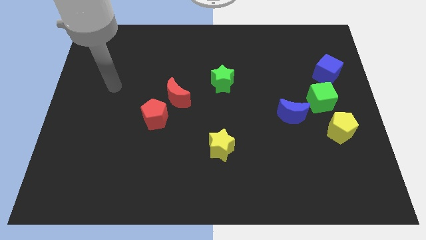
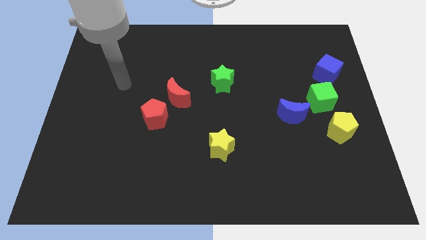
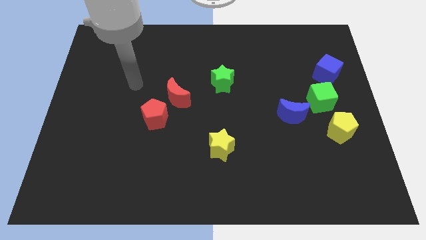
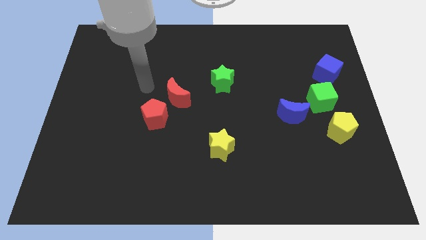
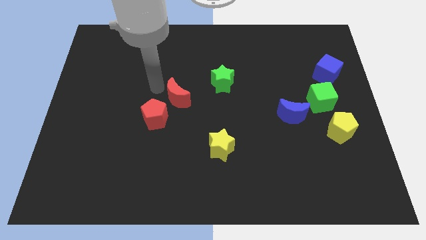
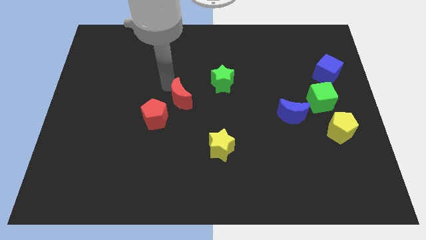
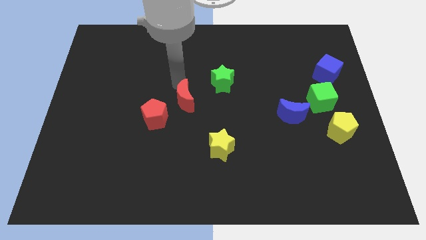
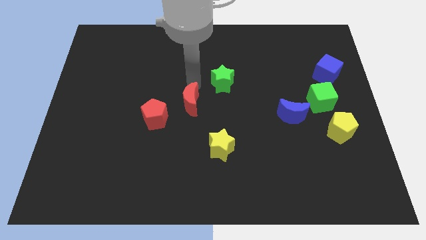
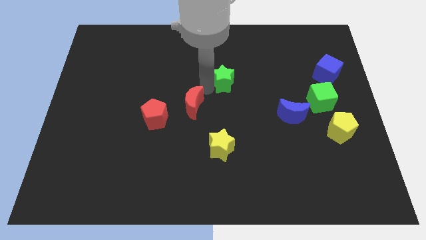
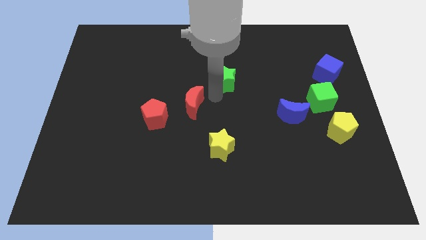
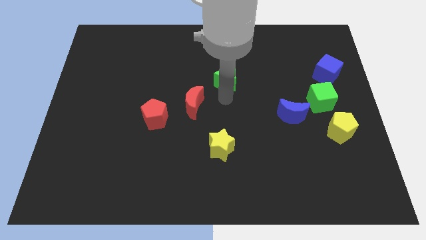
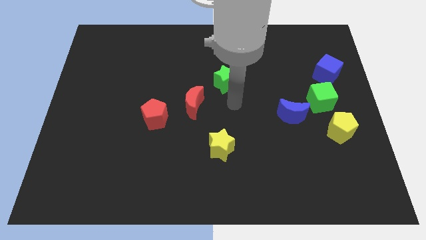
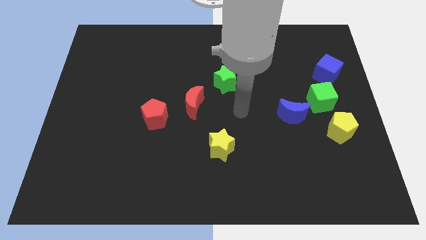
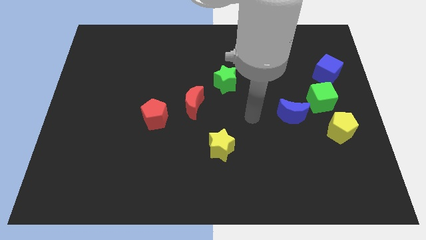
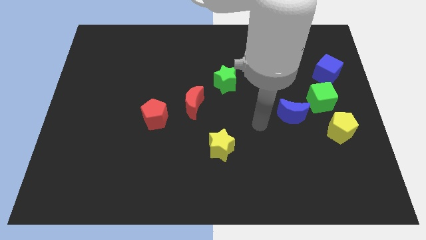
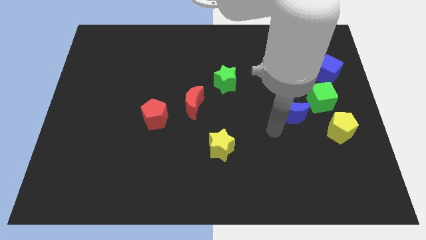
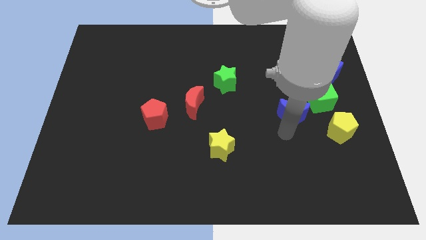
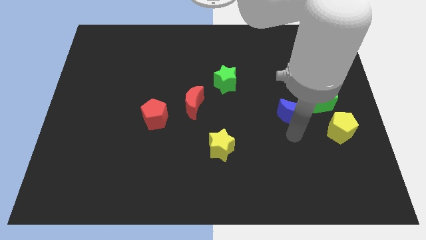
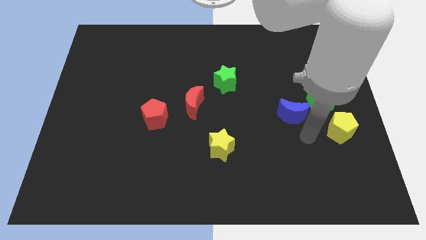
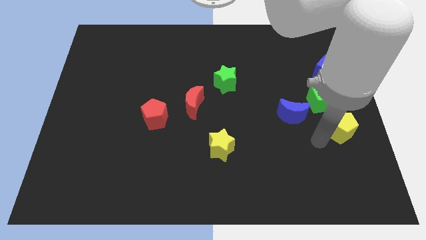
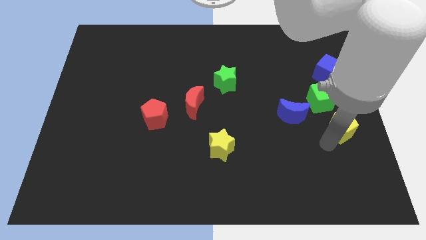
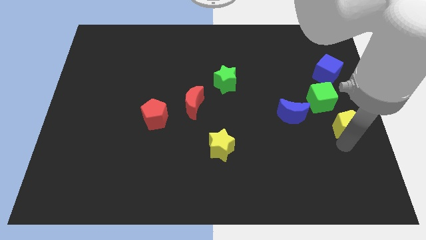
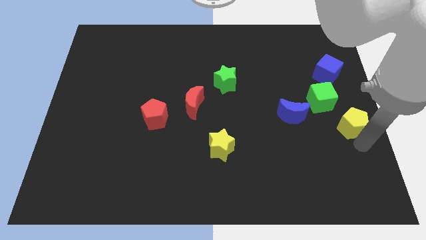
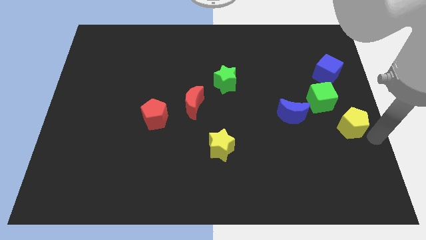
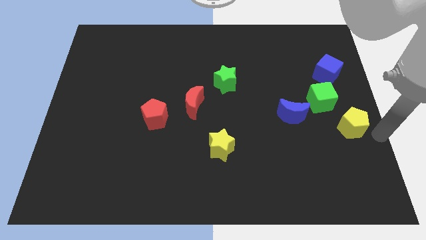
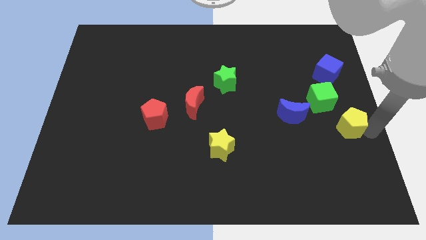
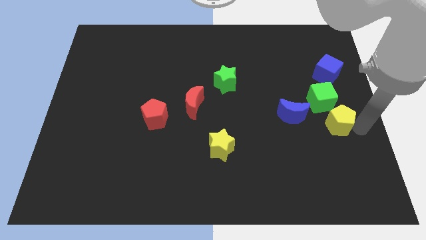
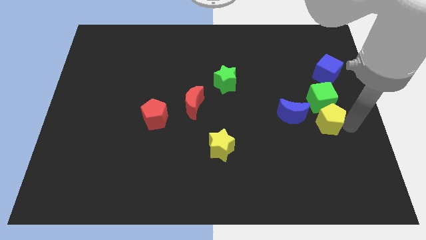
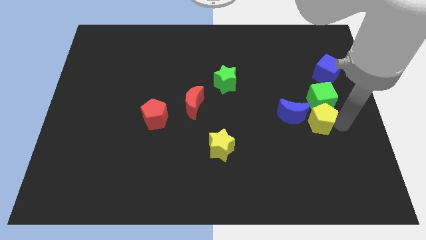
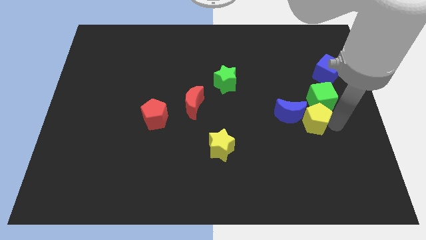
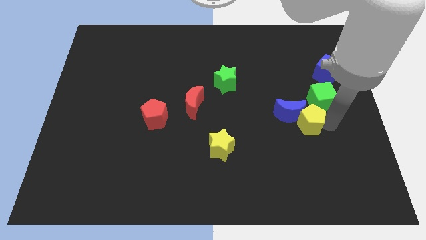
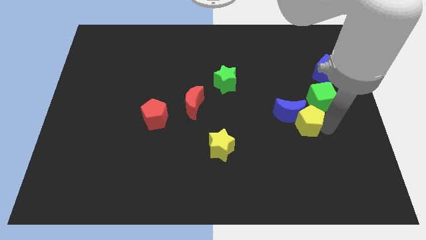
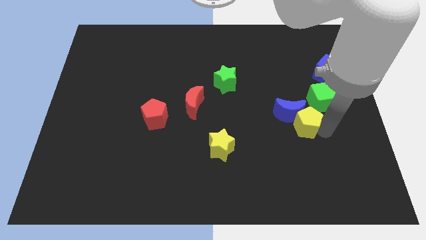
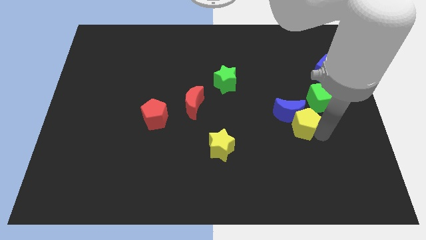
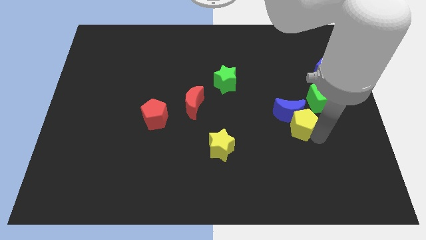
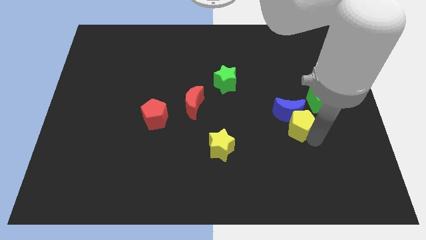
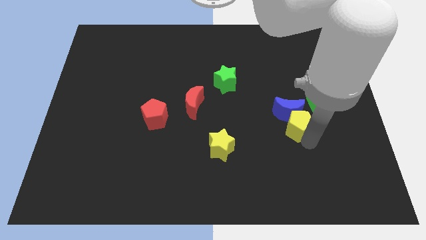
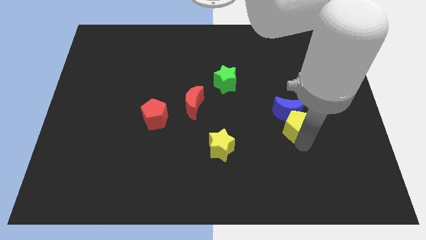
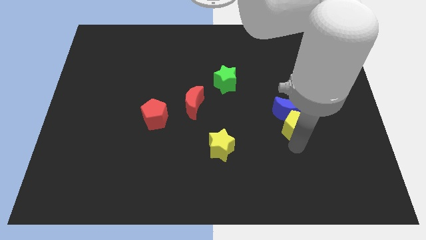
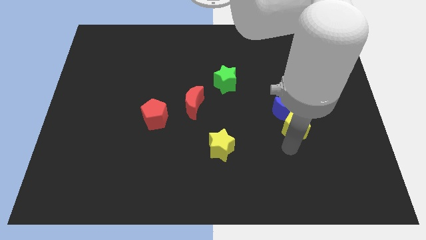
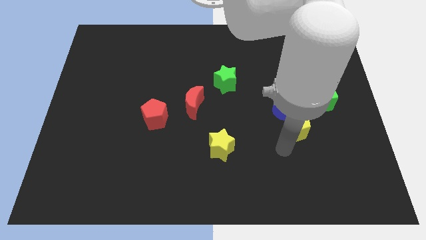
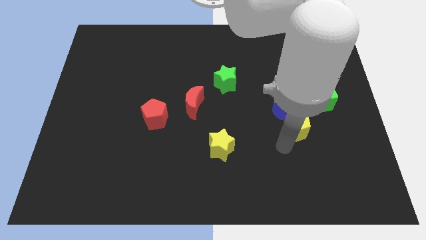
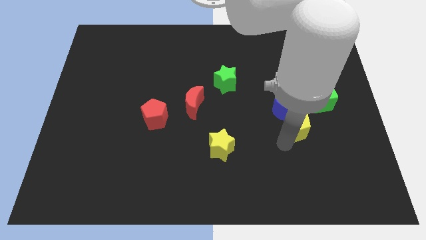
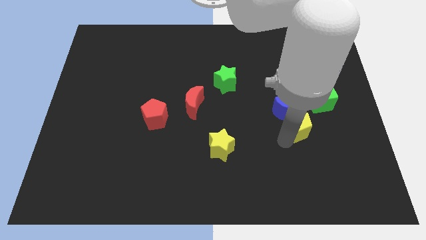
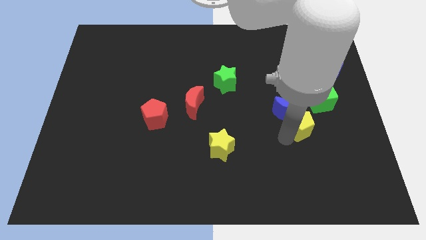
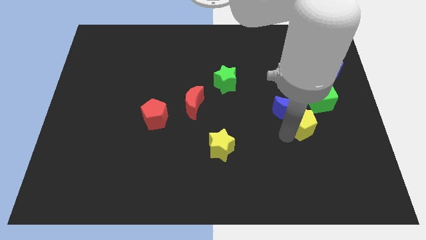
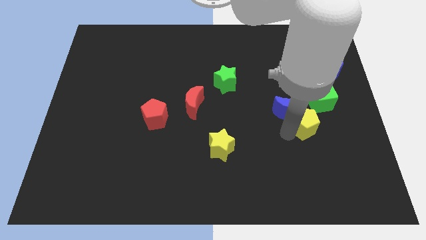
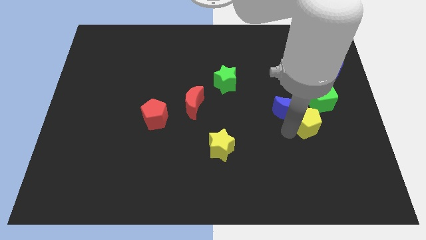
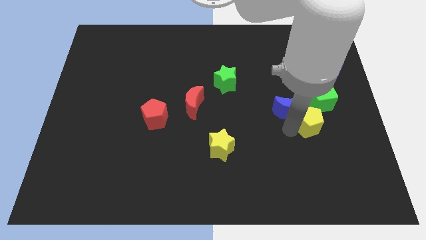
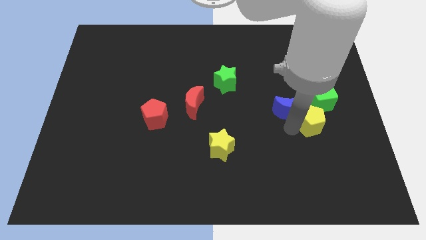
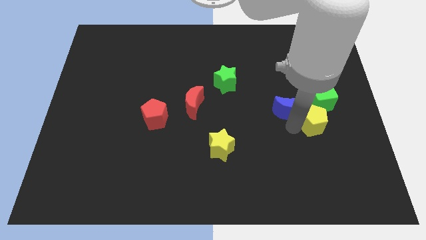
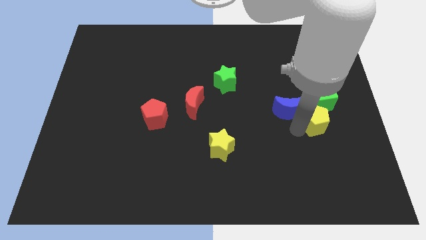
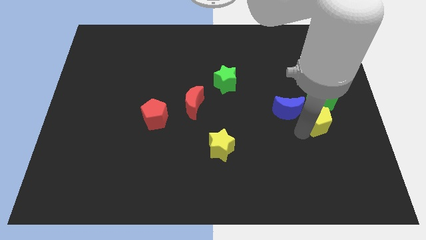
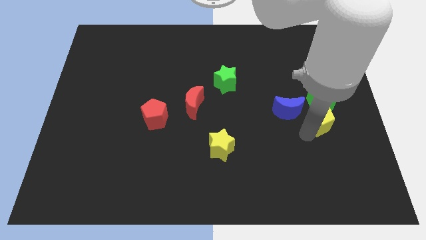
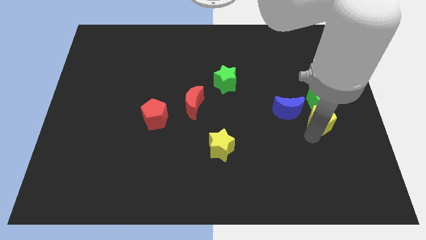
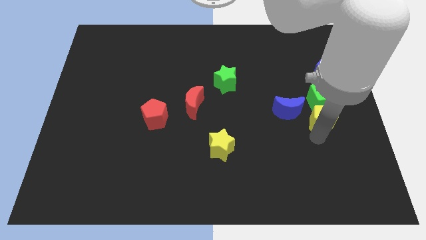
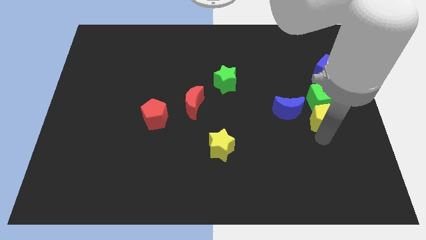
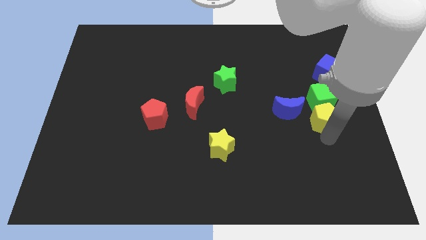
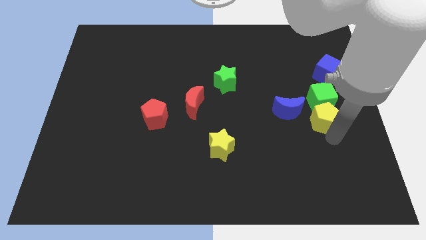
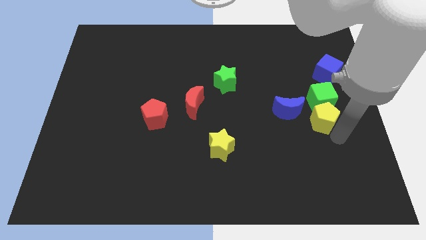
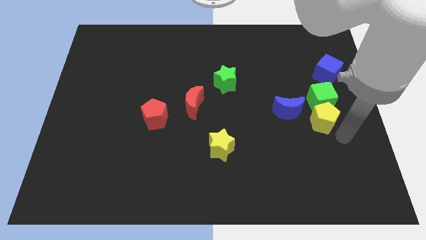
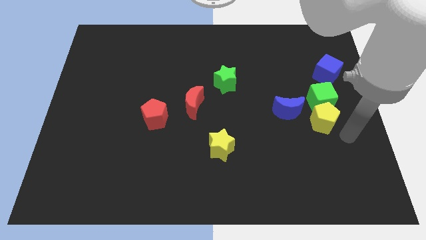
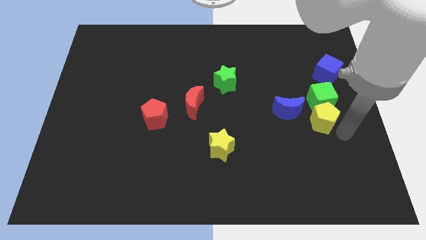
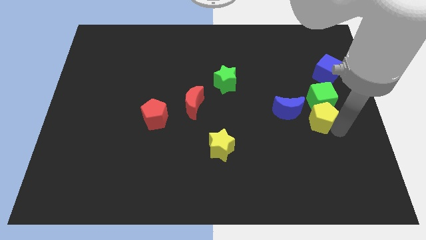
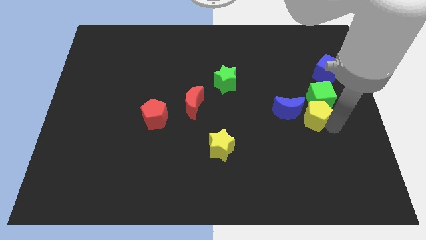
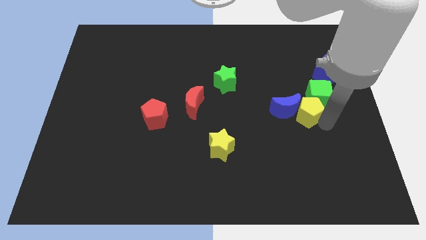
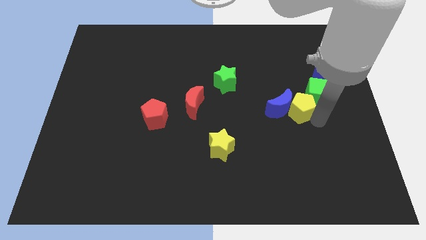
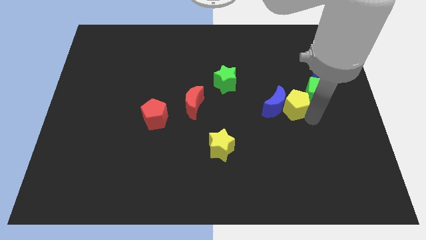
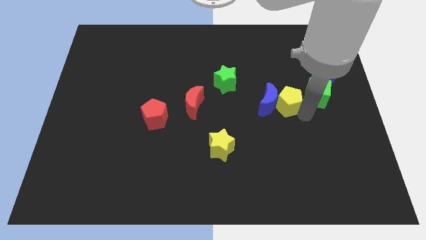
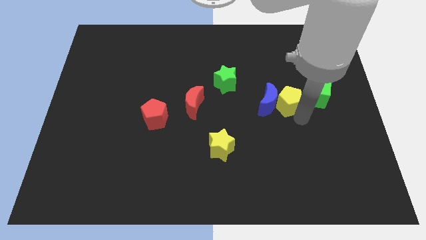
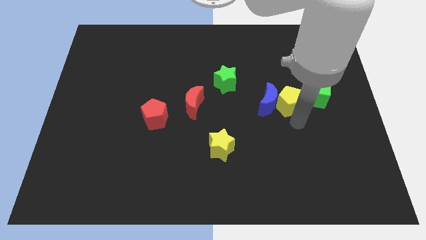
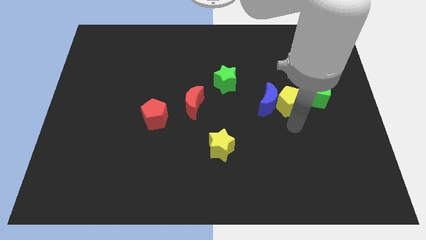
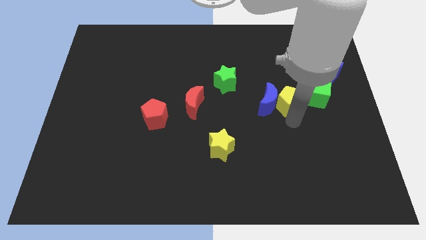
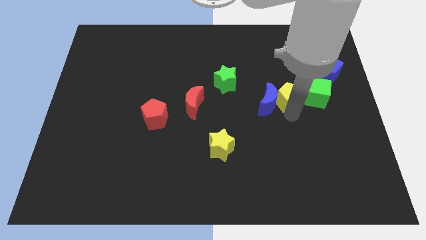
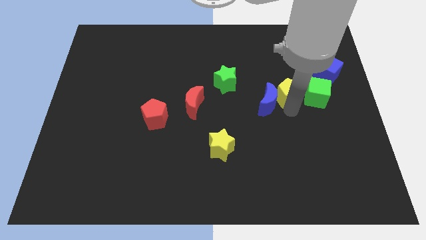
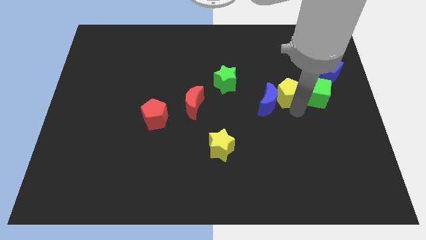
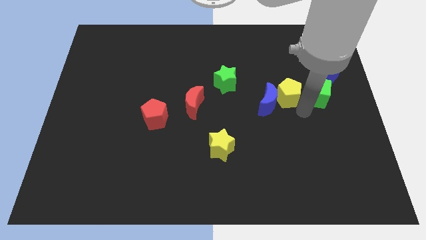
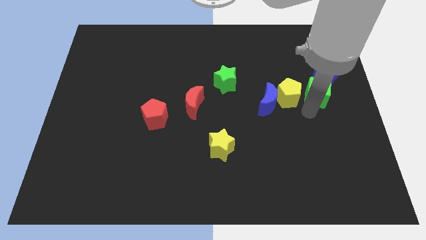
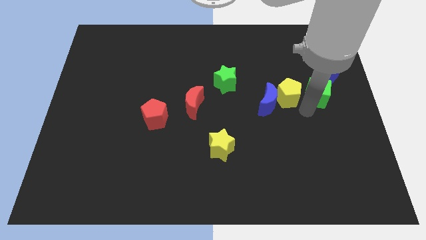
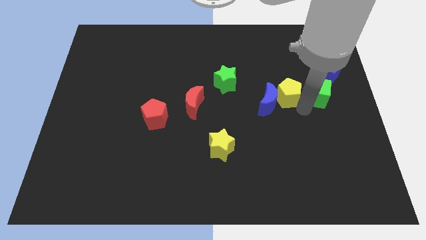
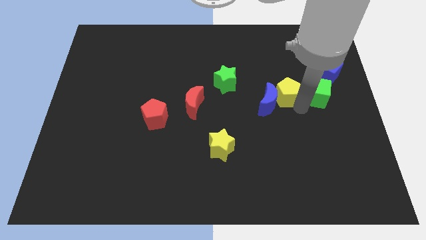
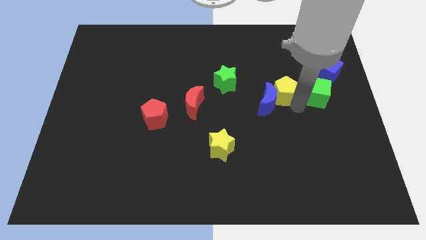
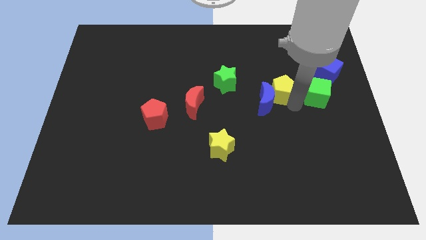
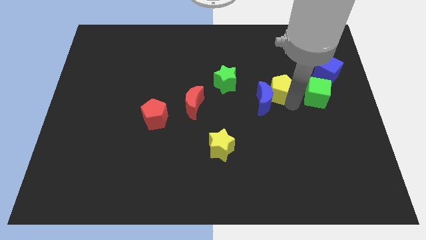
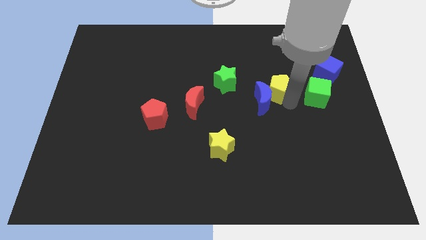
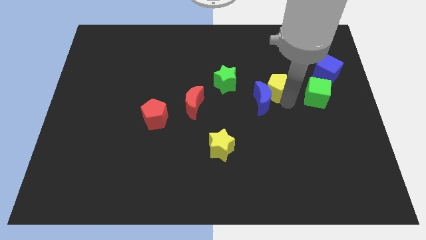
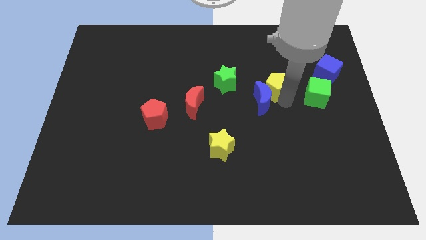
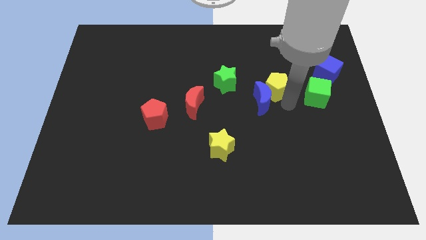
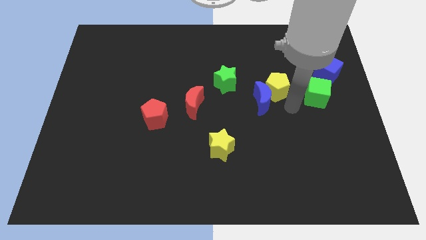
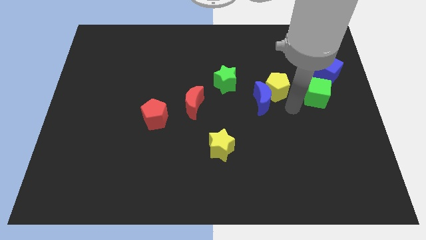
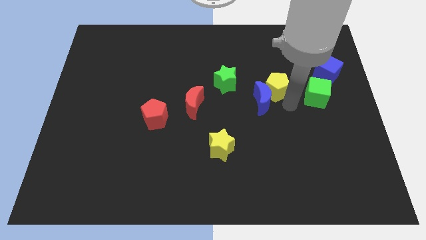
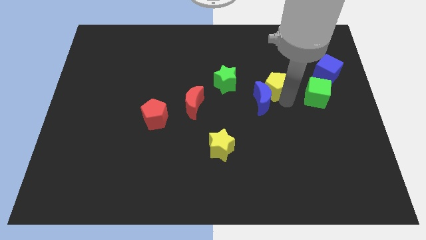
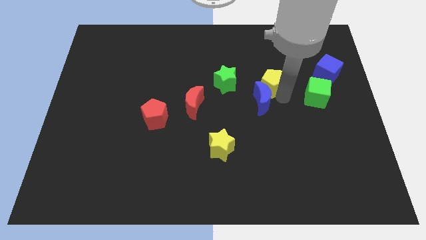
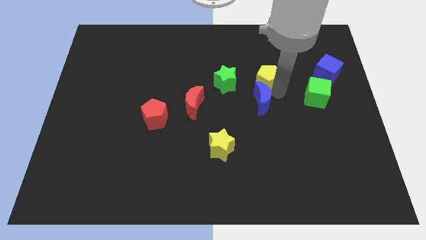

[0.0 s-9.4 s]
slide the yellow pentagon diagonally upwards and to the left
